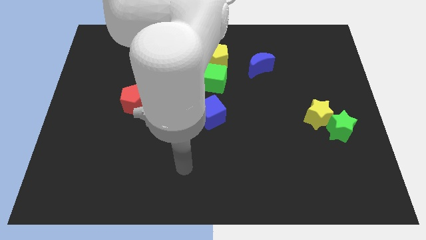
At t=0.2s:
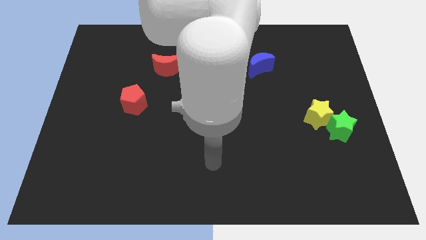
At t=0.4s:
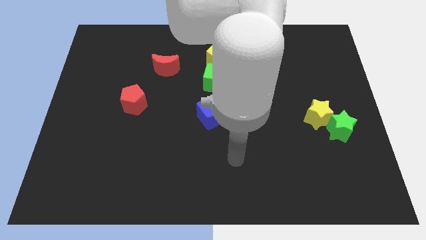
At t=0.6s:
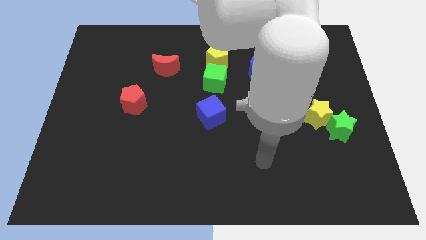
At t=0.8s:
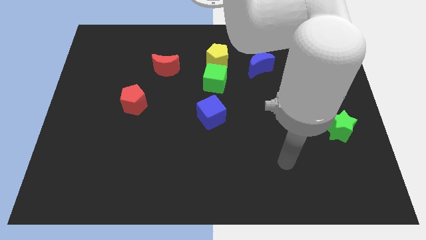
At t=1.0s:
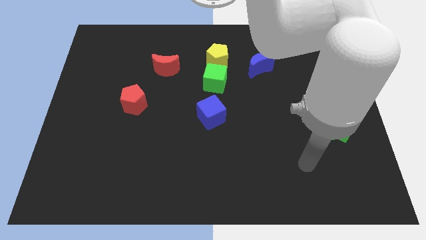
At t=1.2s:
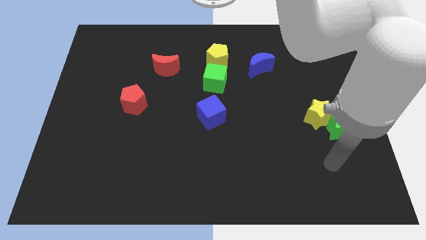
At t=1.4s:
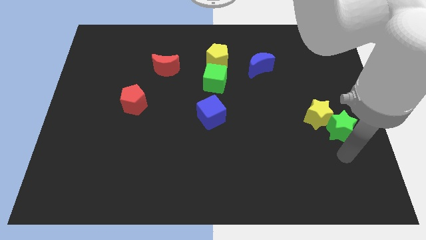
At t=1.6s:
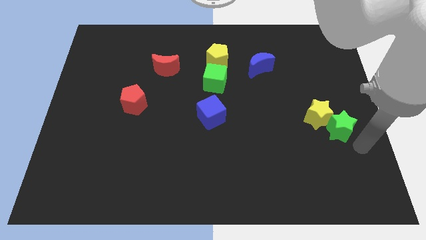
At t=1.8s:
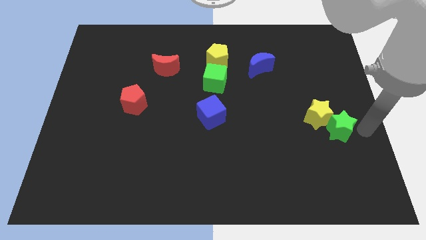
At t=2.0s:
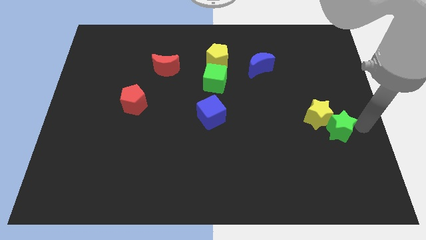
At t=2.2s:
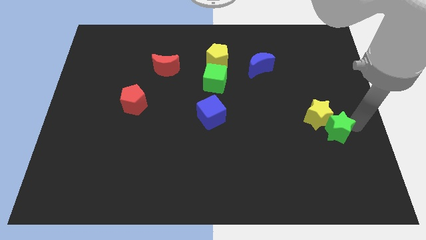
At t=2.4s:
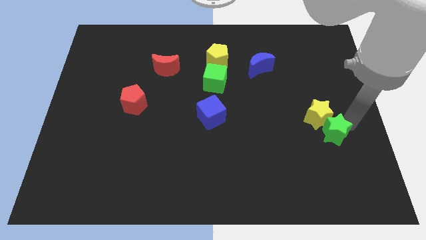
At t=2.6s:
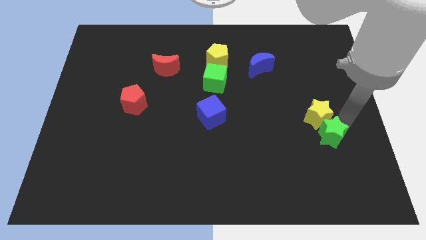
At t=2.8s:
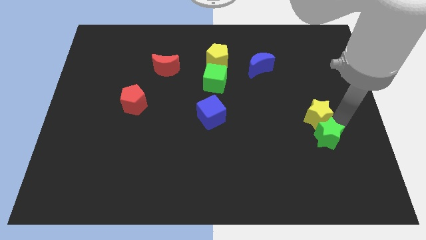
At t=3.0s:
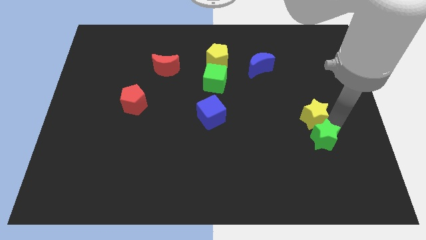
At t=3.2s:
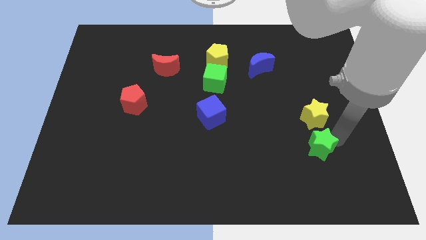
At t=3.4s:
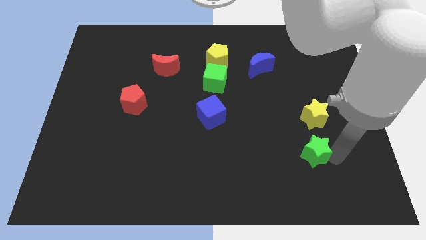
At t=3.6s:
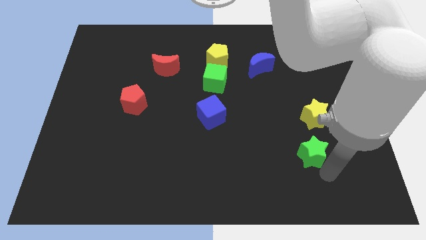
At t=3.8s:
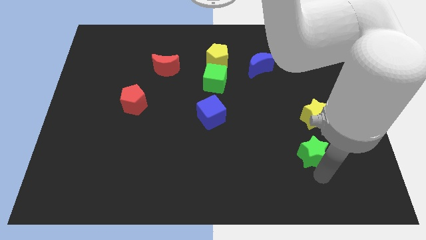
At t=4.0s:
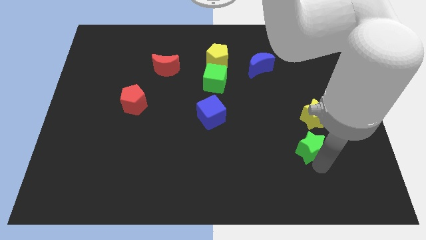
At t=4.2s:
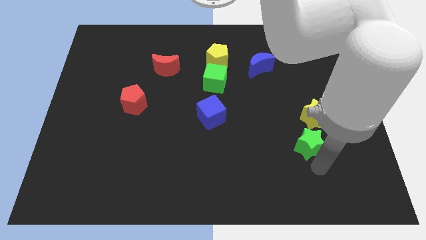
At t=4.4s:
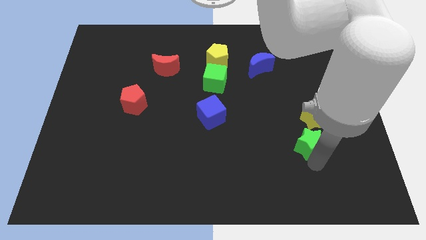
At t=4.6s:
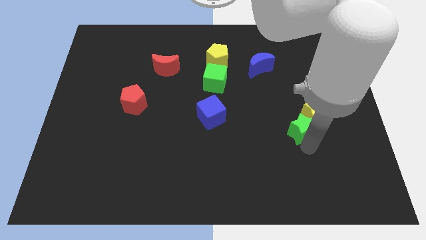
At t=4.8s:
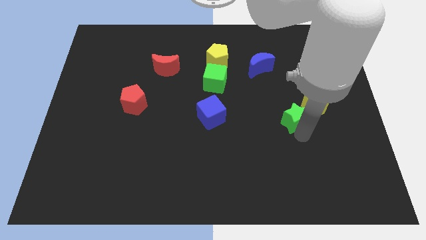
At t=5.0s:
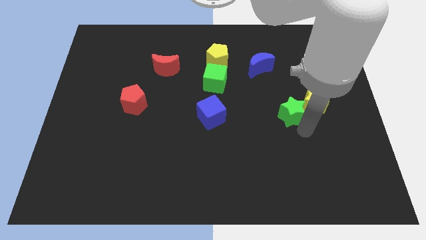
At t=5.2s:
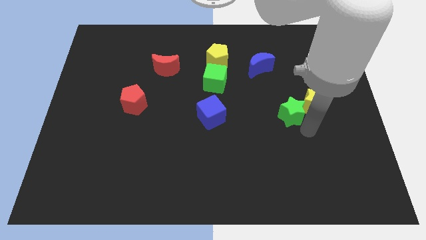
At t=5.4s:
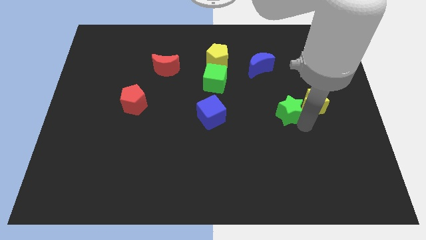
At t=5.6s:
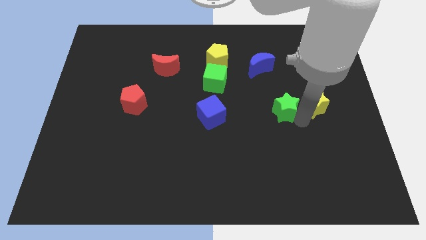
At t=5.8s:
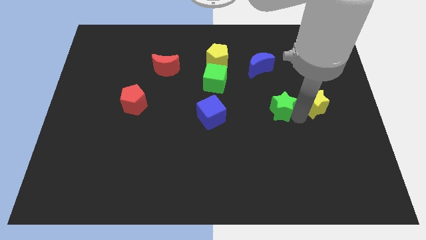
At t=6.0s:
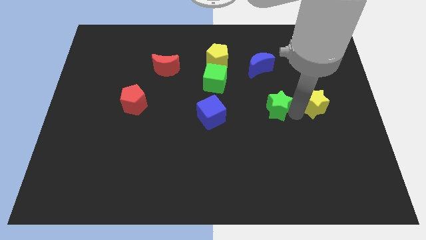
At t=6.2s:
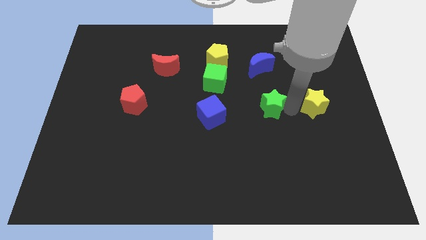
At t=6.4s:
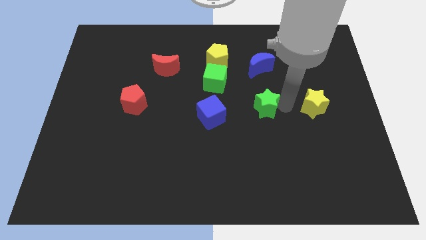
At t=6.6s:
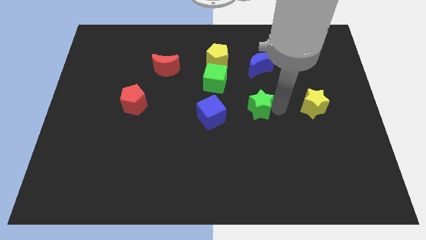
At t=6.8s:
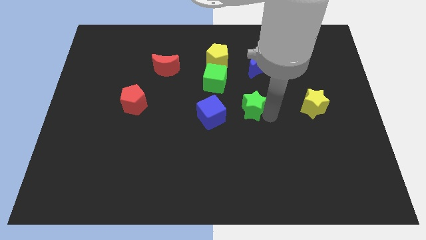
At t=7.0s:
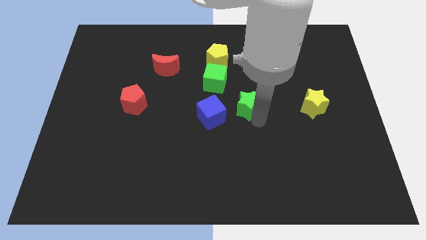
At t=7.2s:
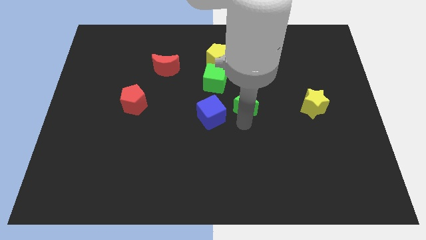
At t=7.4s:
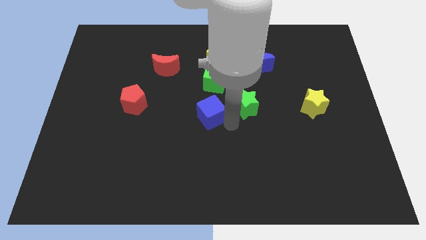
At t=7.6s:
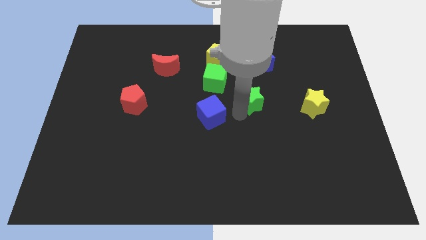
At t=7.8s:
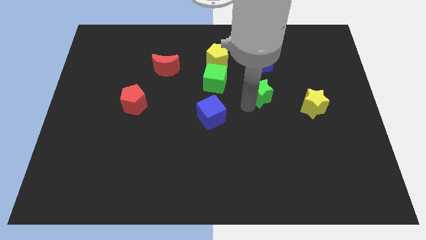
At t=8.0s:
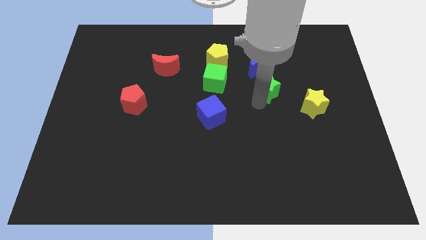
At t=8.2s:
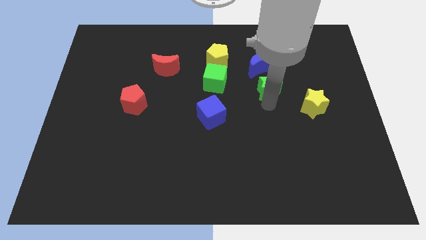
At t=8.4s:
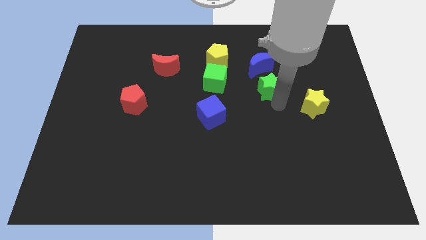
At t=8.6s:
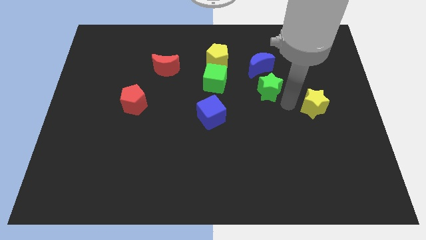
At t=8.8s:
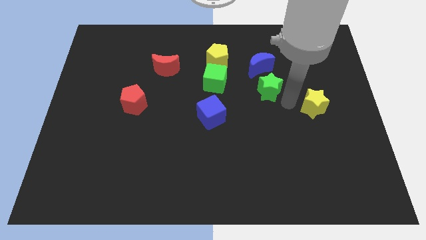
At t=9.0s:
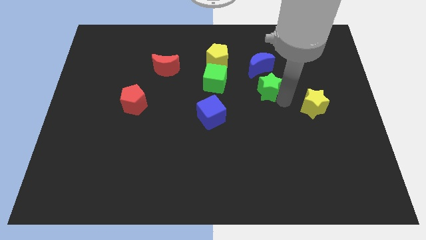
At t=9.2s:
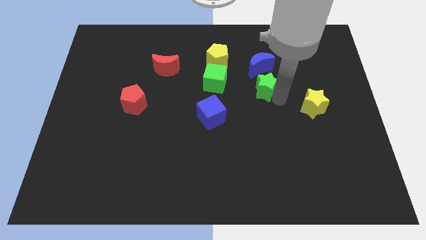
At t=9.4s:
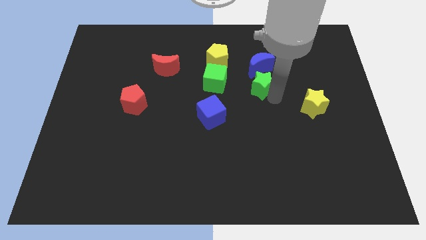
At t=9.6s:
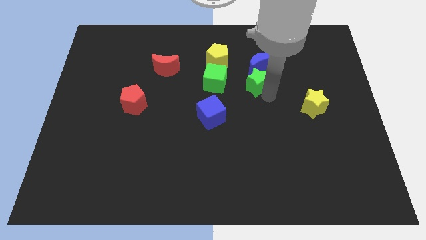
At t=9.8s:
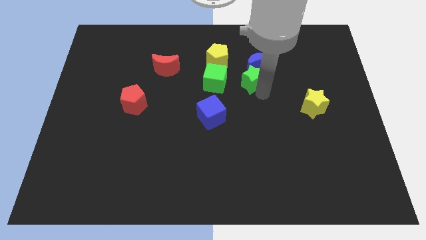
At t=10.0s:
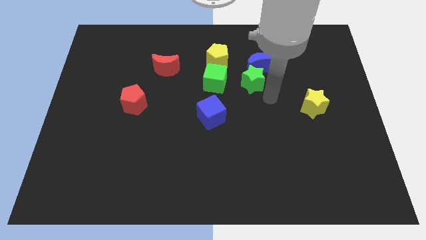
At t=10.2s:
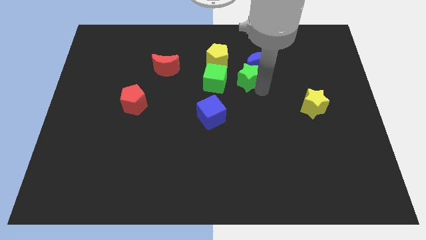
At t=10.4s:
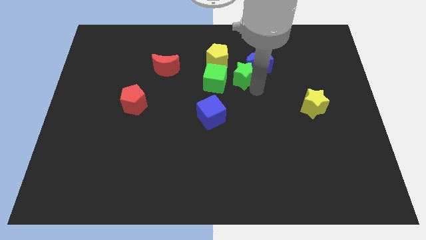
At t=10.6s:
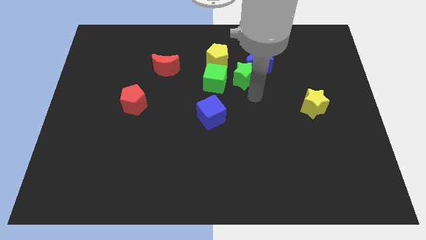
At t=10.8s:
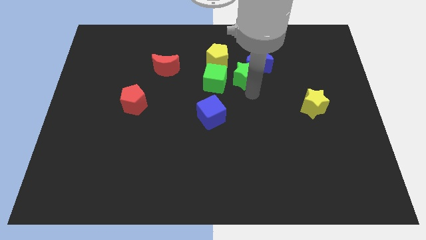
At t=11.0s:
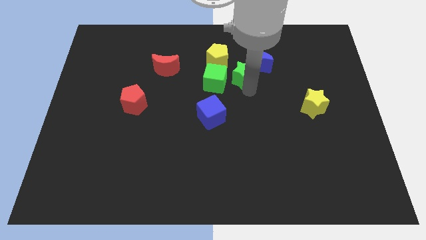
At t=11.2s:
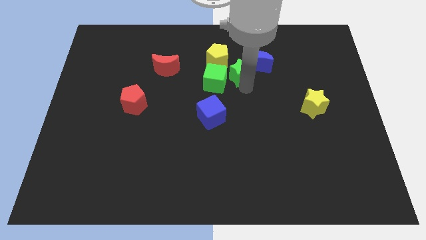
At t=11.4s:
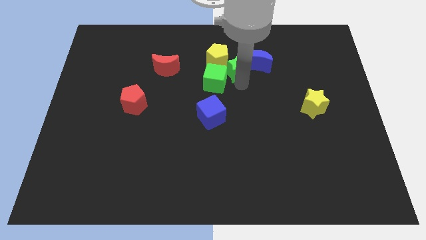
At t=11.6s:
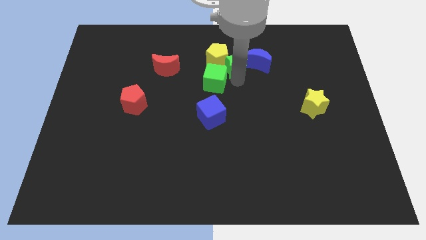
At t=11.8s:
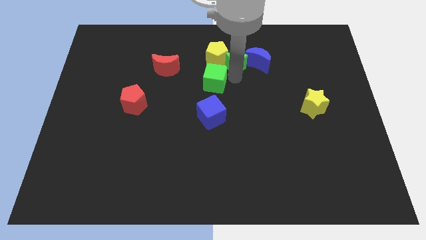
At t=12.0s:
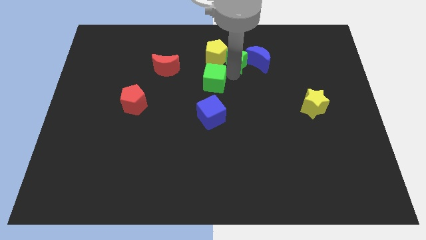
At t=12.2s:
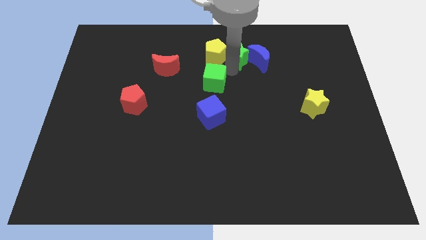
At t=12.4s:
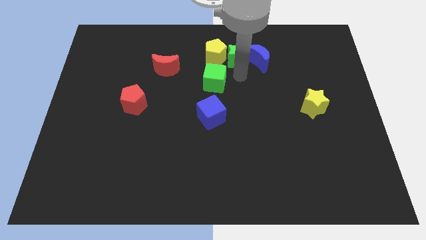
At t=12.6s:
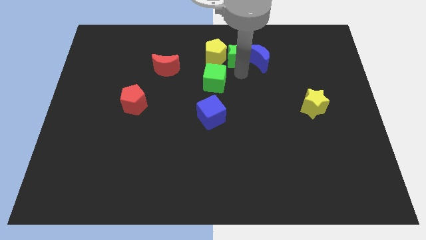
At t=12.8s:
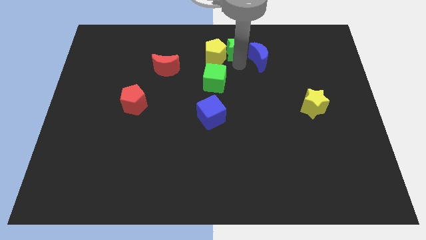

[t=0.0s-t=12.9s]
put the green star to the top side

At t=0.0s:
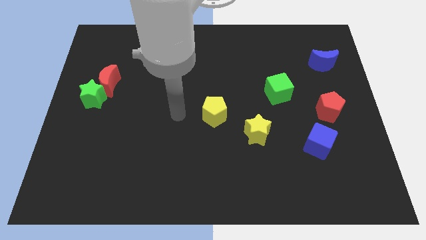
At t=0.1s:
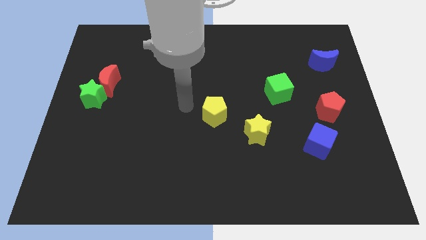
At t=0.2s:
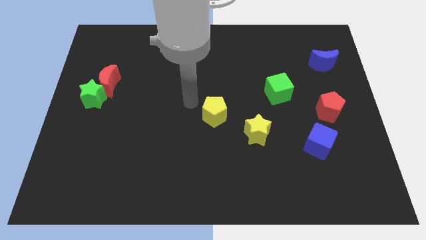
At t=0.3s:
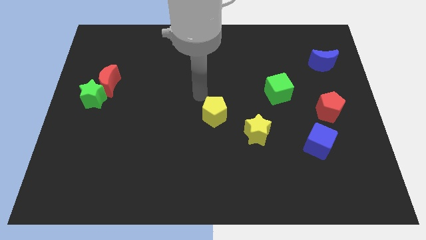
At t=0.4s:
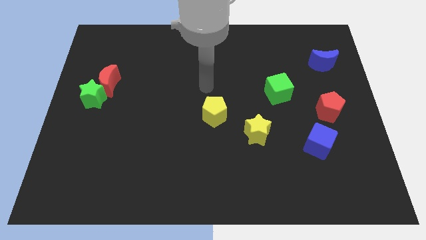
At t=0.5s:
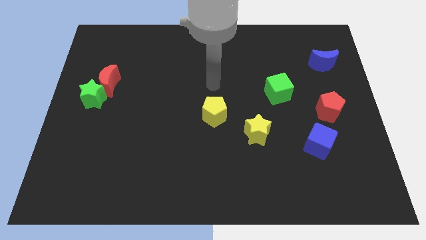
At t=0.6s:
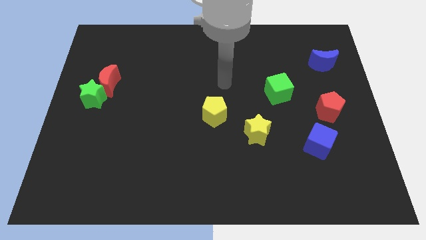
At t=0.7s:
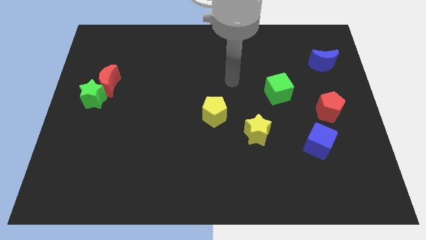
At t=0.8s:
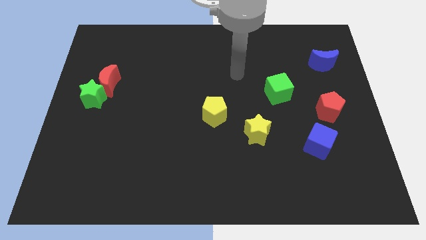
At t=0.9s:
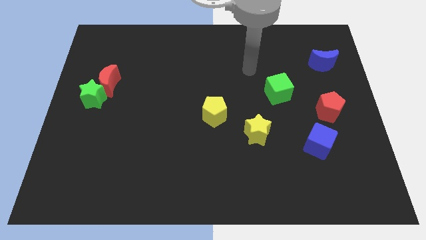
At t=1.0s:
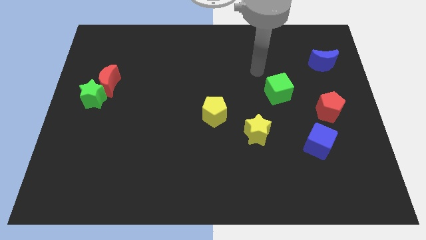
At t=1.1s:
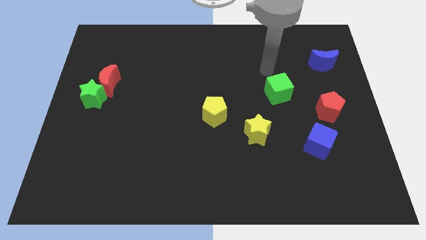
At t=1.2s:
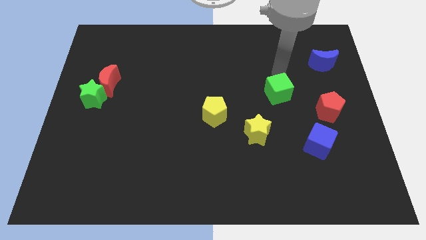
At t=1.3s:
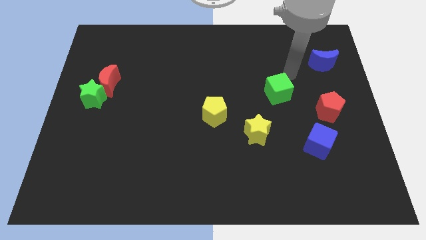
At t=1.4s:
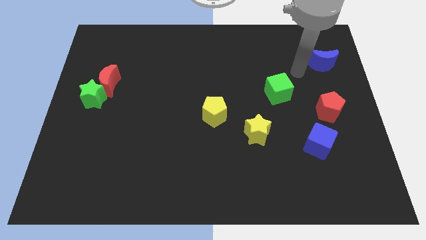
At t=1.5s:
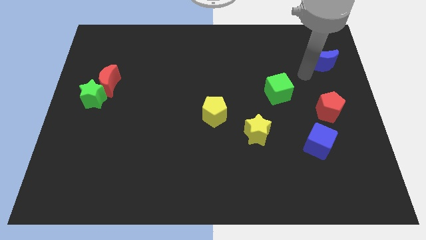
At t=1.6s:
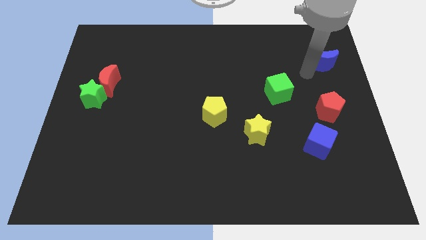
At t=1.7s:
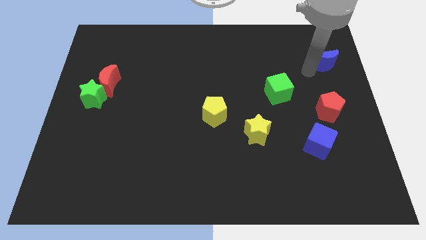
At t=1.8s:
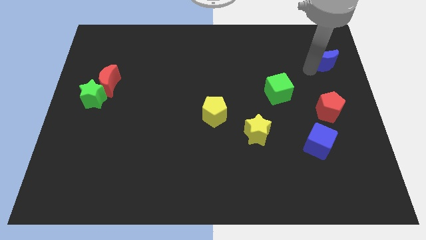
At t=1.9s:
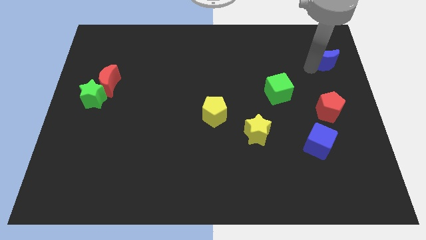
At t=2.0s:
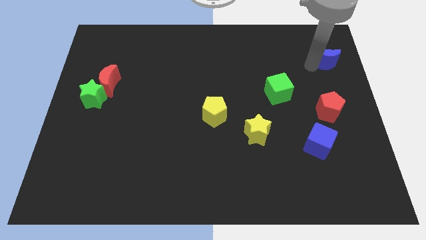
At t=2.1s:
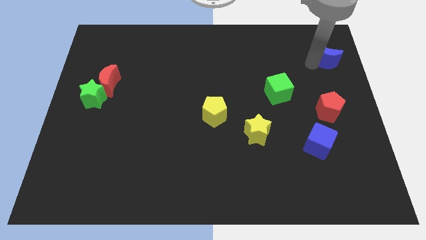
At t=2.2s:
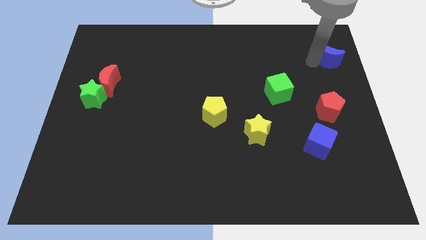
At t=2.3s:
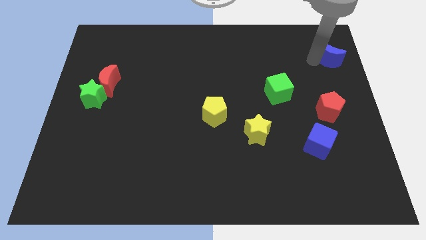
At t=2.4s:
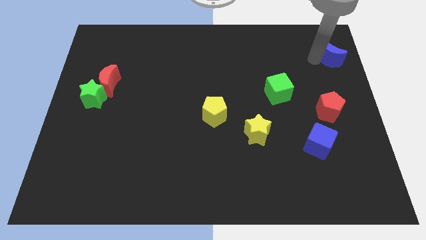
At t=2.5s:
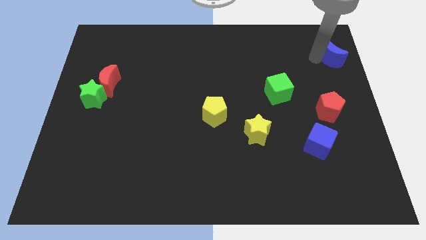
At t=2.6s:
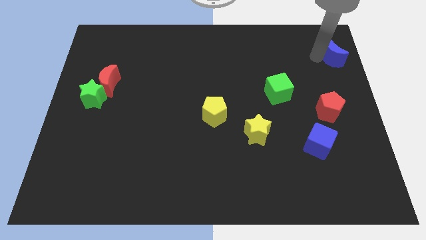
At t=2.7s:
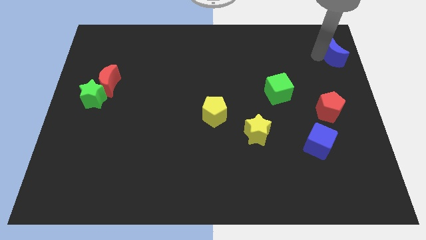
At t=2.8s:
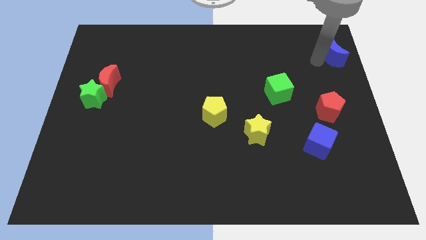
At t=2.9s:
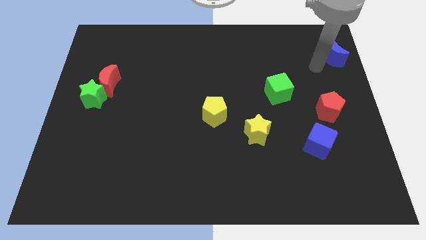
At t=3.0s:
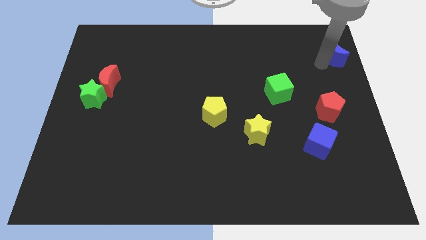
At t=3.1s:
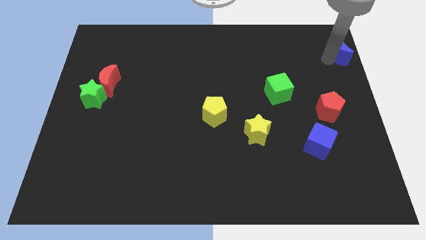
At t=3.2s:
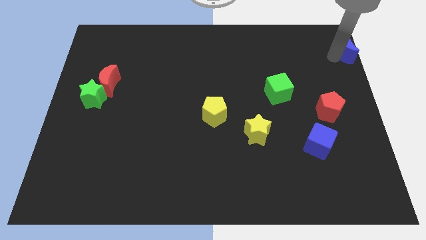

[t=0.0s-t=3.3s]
push the blue moon to the upper right corner
